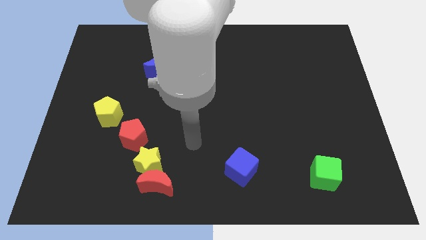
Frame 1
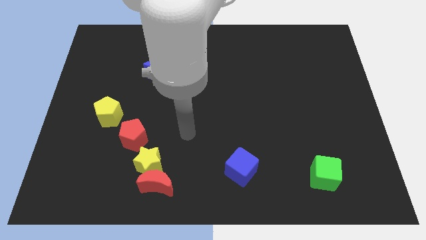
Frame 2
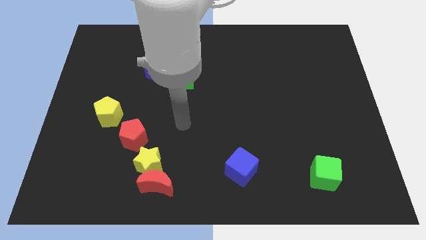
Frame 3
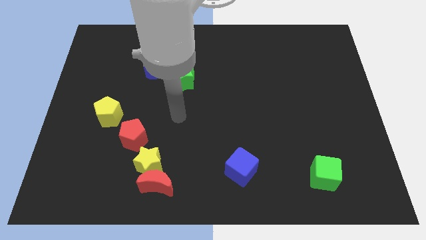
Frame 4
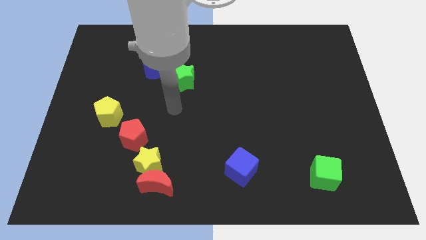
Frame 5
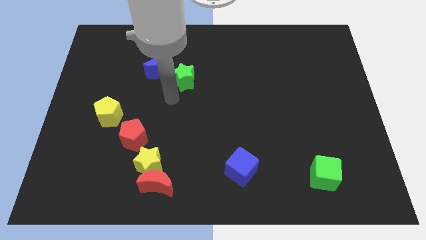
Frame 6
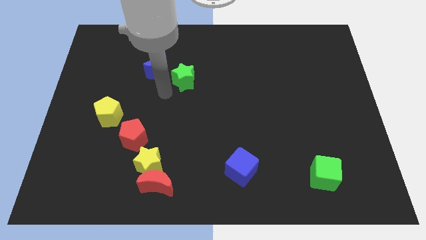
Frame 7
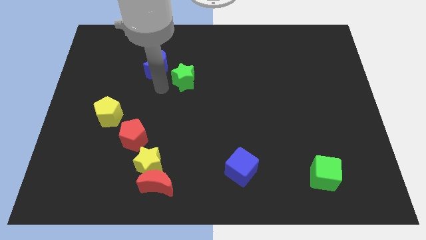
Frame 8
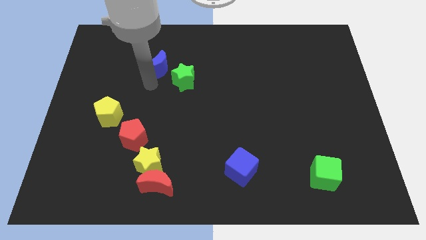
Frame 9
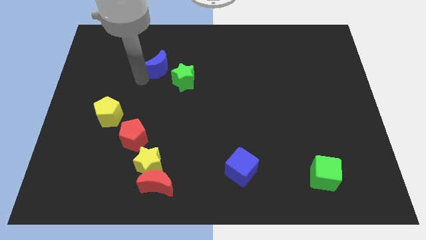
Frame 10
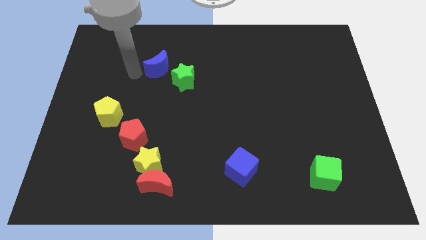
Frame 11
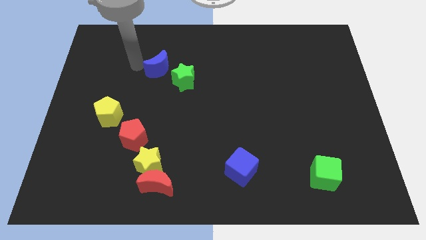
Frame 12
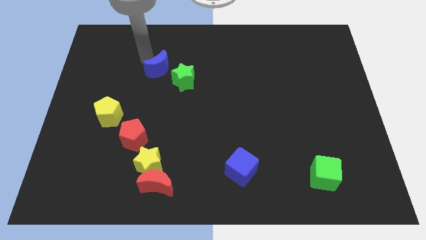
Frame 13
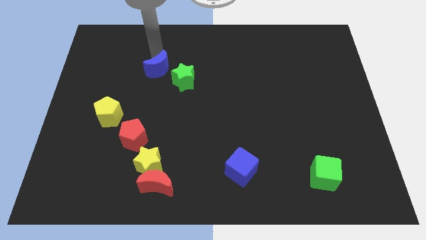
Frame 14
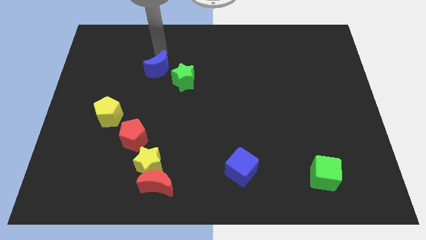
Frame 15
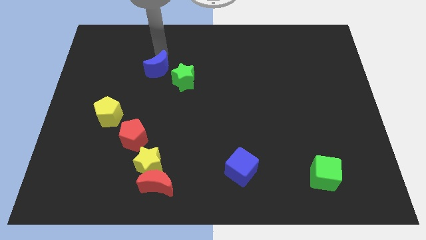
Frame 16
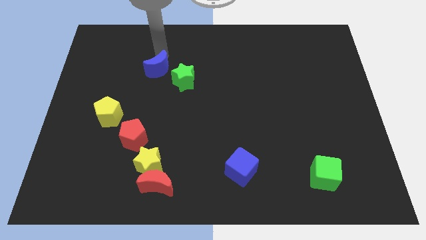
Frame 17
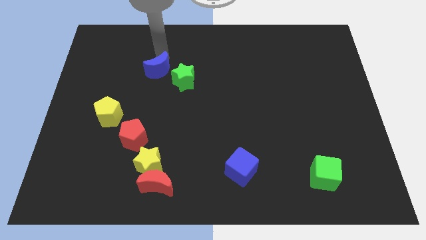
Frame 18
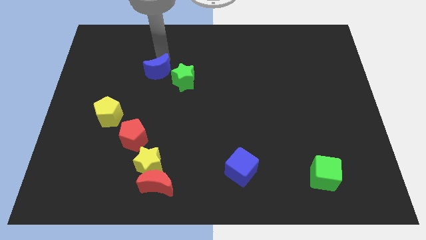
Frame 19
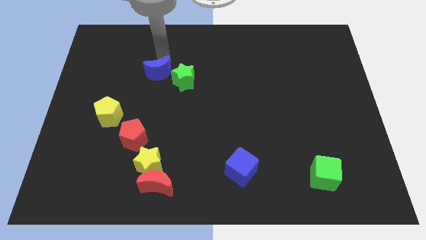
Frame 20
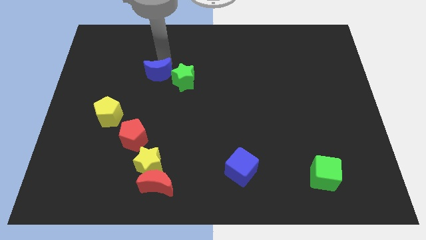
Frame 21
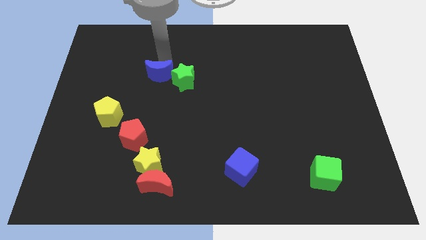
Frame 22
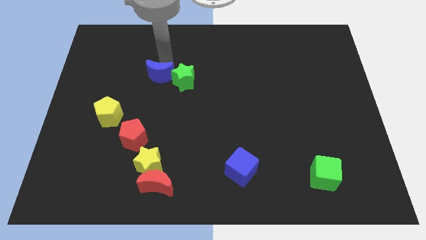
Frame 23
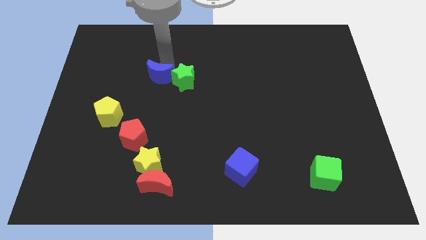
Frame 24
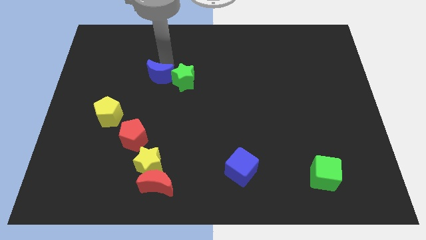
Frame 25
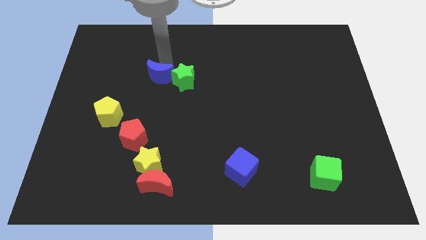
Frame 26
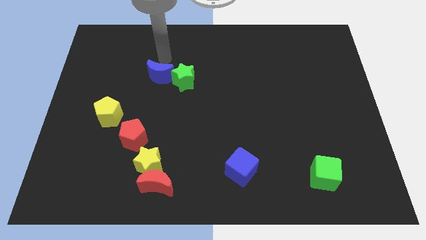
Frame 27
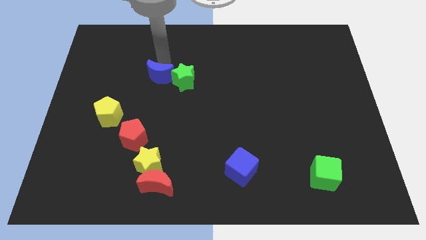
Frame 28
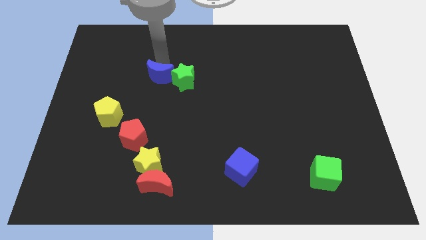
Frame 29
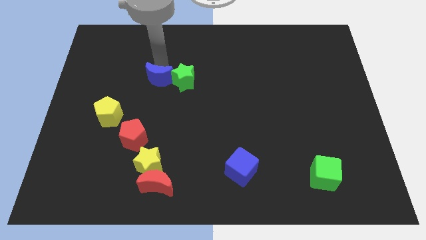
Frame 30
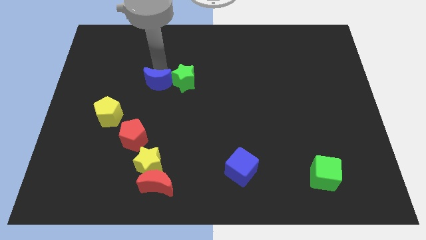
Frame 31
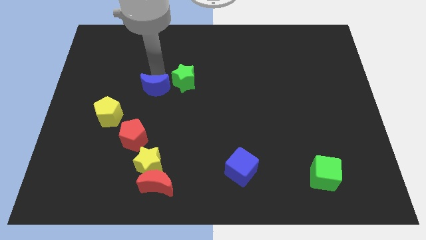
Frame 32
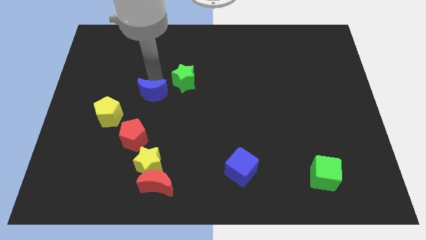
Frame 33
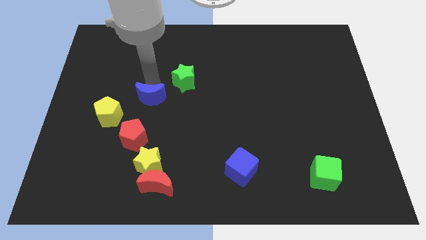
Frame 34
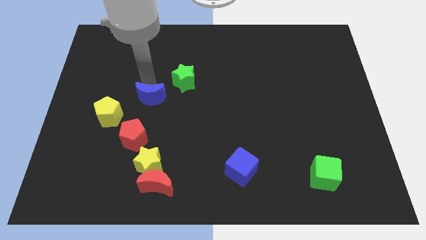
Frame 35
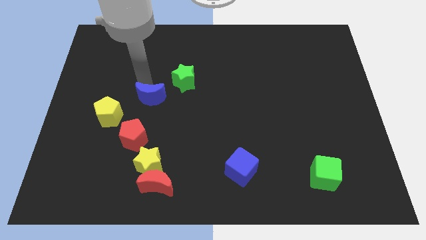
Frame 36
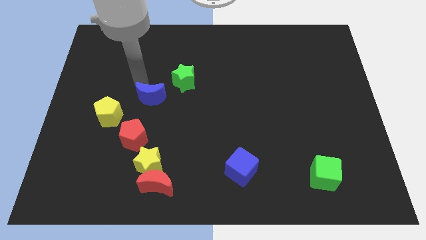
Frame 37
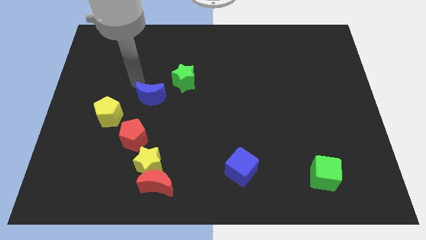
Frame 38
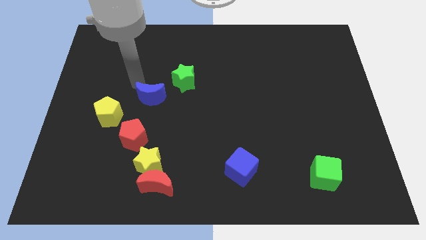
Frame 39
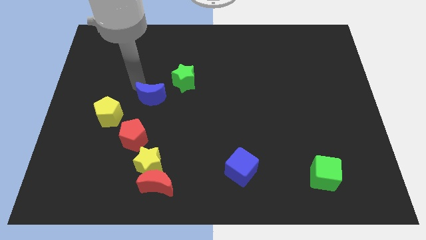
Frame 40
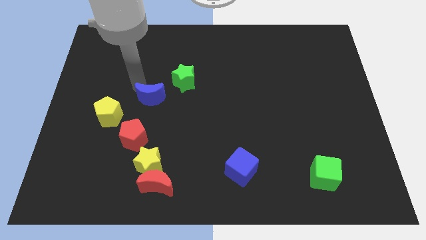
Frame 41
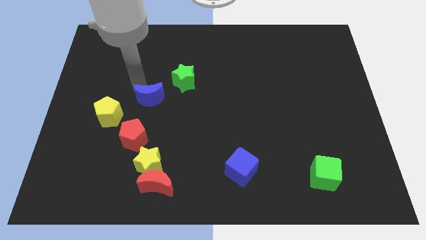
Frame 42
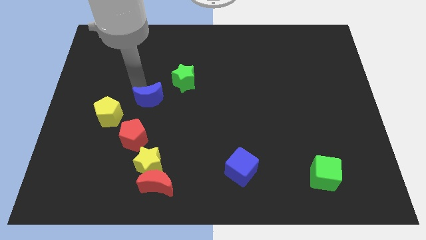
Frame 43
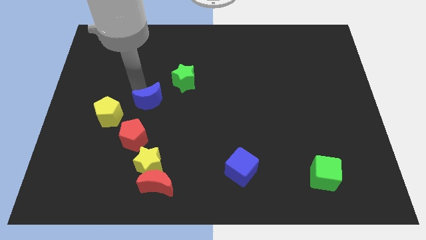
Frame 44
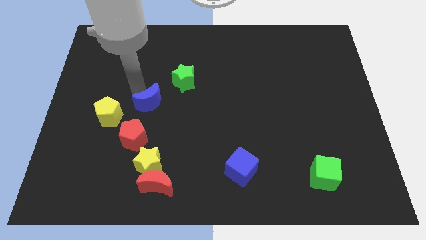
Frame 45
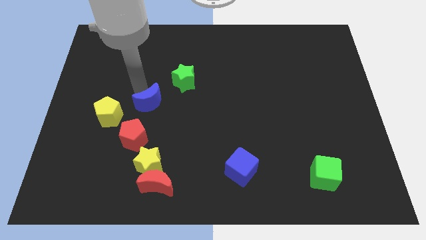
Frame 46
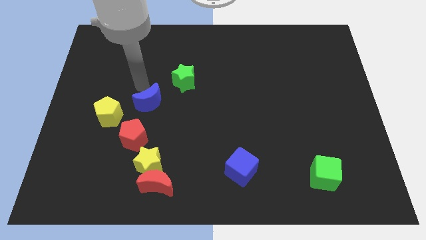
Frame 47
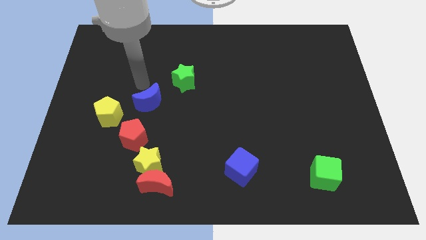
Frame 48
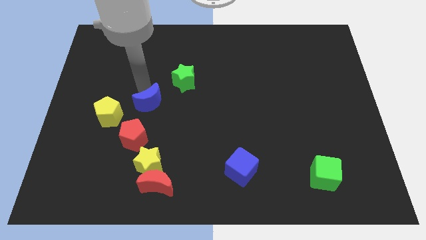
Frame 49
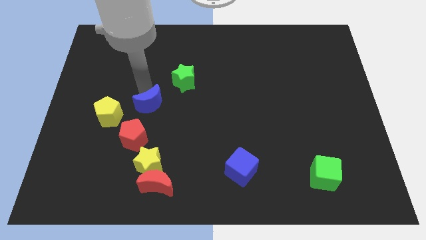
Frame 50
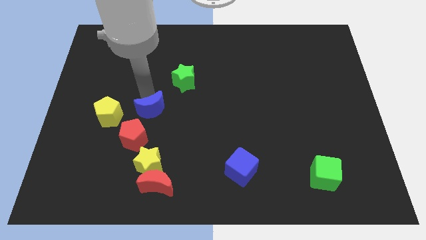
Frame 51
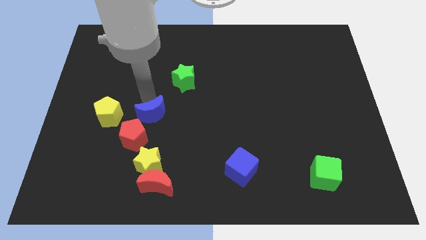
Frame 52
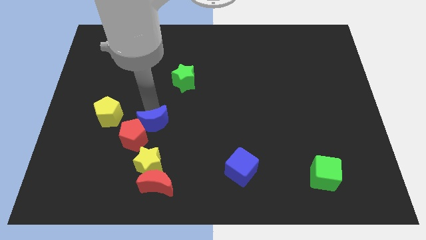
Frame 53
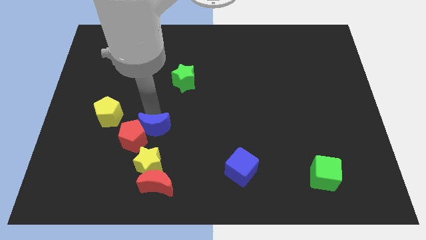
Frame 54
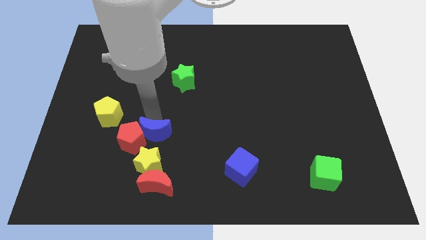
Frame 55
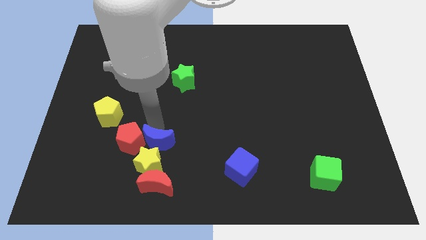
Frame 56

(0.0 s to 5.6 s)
slide the blue moon next to the yellow star

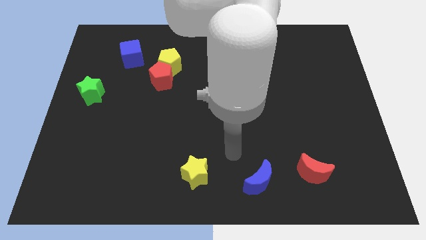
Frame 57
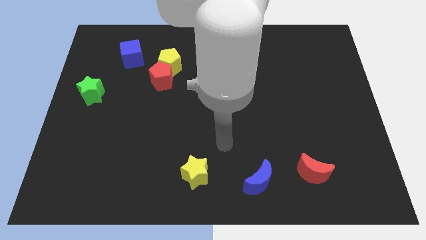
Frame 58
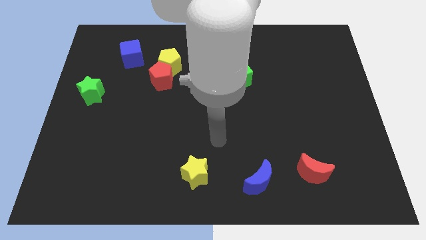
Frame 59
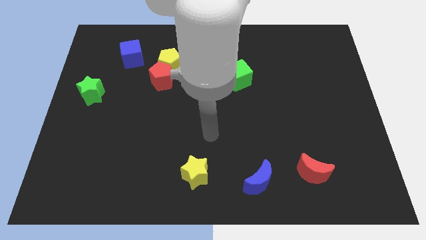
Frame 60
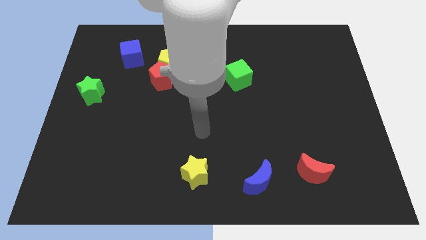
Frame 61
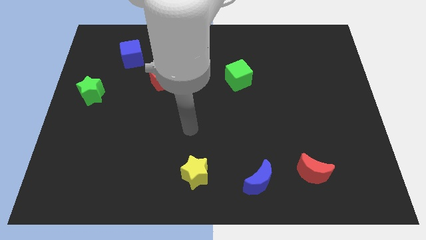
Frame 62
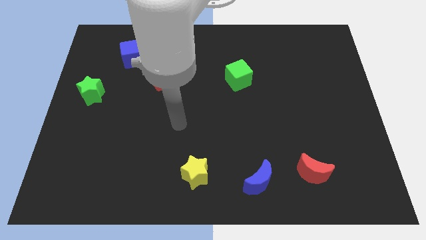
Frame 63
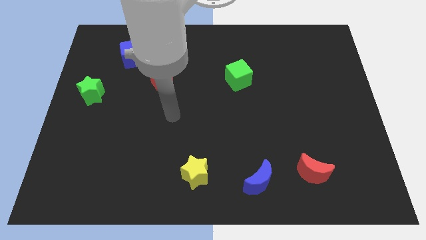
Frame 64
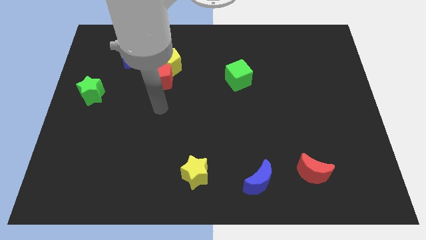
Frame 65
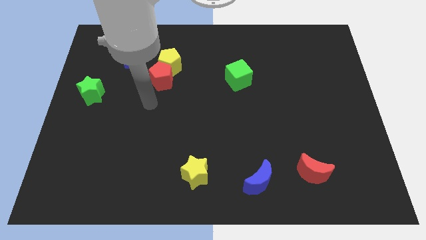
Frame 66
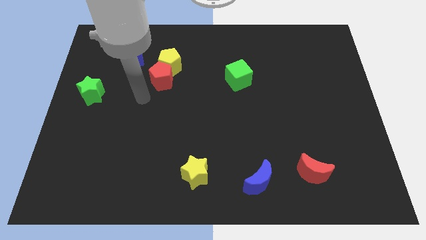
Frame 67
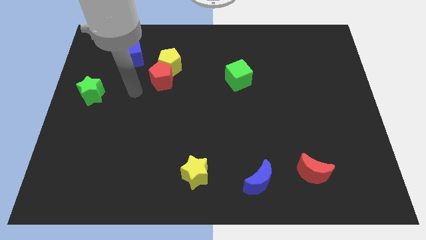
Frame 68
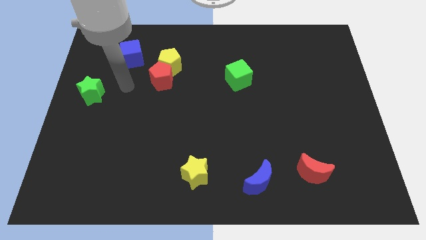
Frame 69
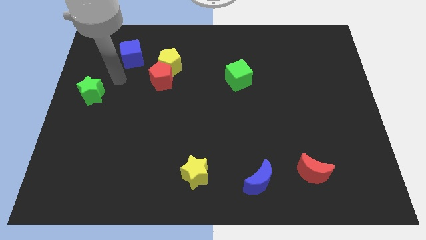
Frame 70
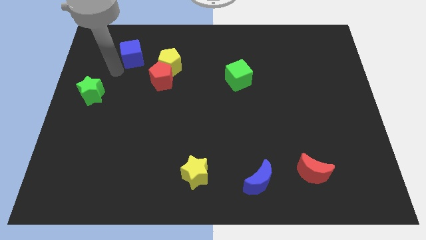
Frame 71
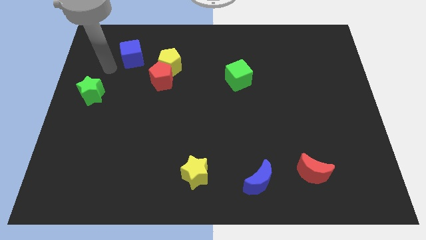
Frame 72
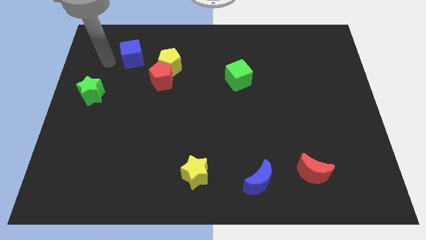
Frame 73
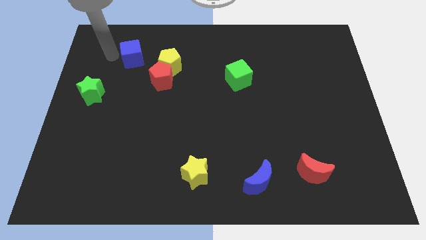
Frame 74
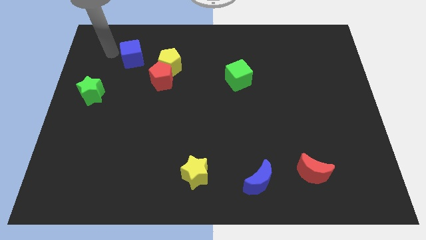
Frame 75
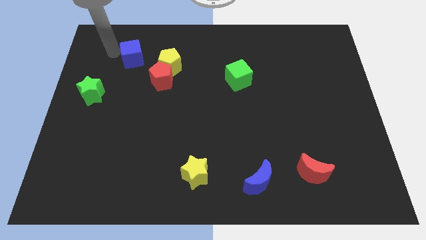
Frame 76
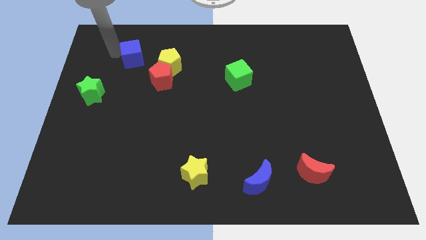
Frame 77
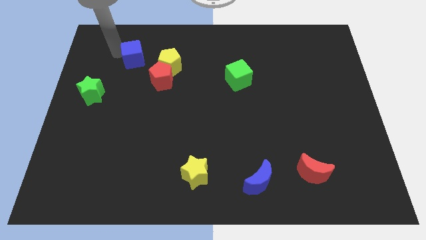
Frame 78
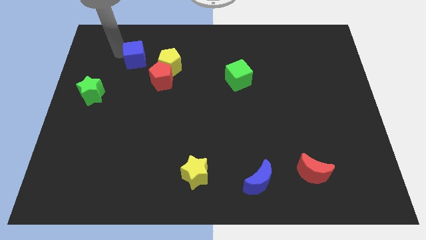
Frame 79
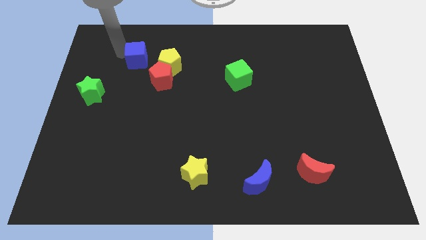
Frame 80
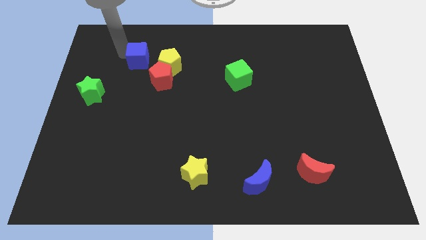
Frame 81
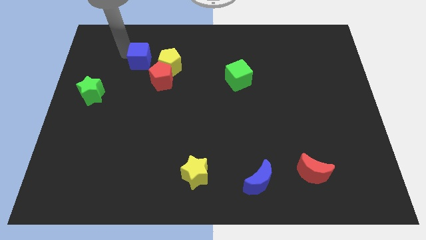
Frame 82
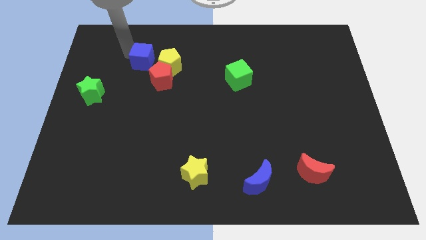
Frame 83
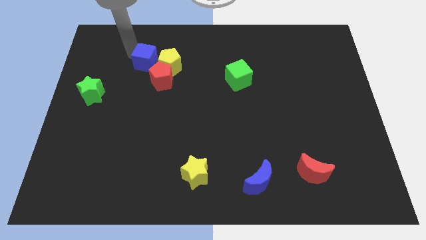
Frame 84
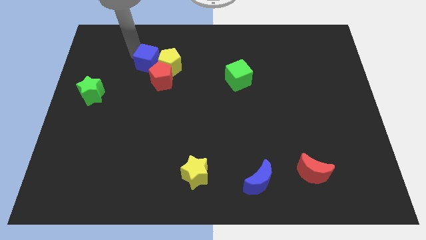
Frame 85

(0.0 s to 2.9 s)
move the blue cube towards the yellow pentagon
